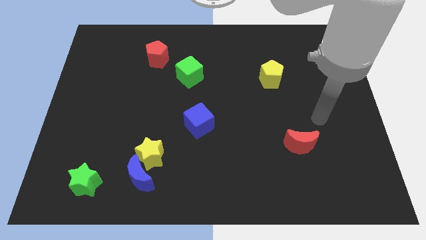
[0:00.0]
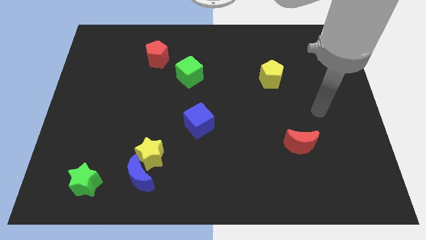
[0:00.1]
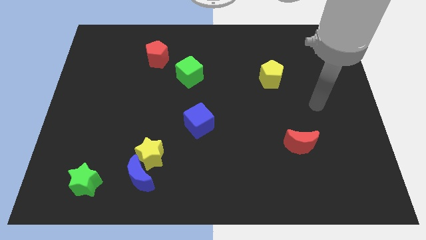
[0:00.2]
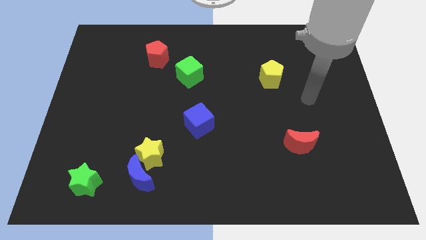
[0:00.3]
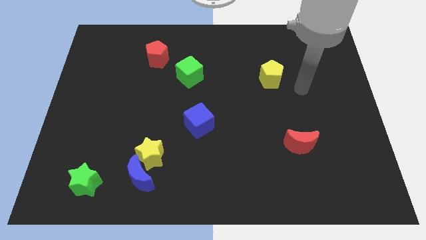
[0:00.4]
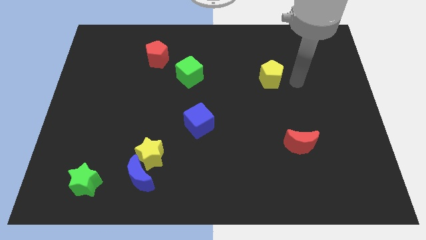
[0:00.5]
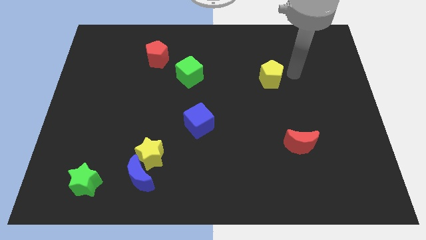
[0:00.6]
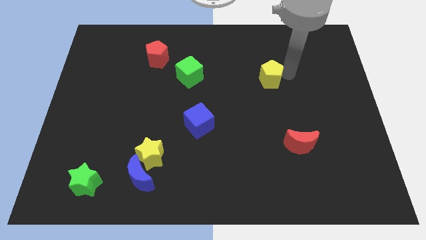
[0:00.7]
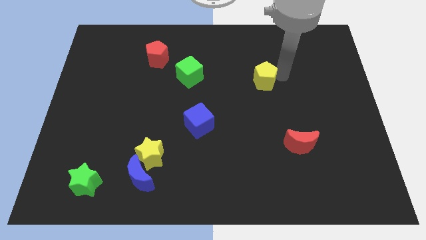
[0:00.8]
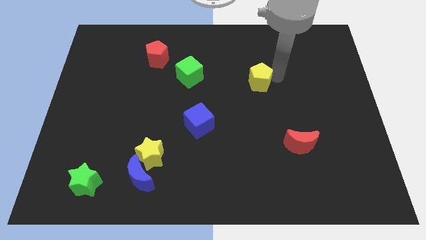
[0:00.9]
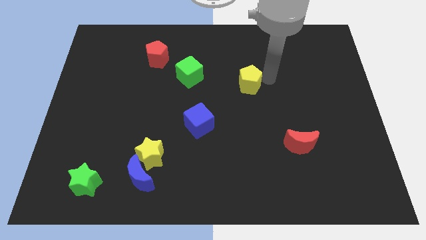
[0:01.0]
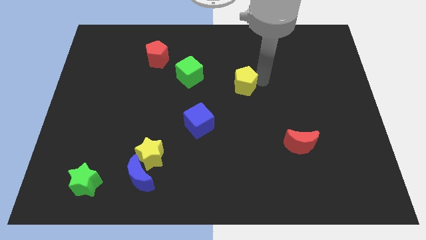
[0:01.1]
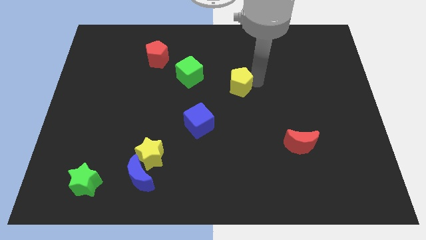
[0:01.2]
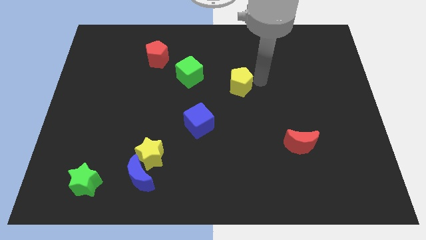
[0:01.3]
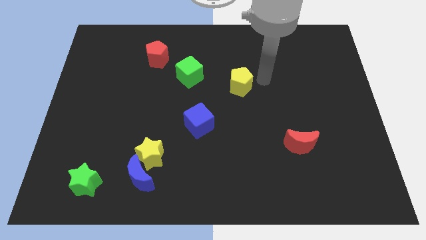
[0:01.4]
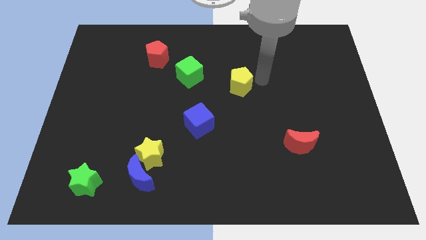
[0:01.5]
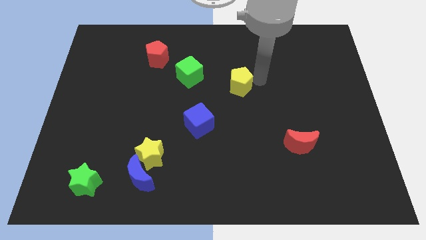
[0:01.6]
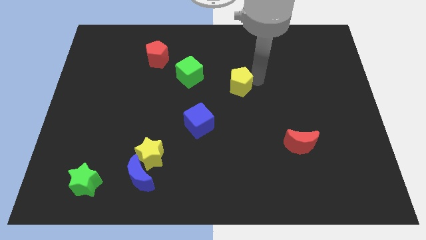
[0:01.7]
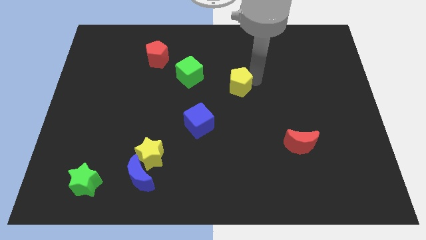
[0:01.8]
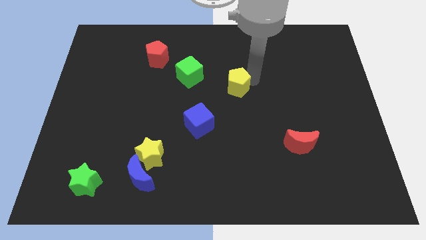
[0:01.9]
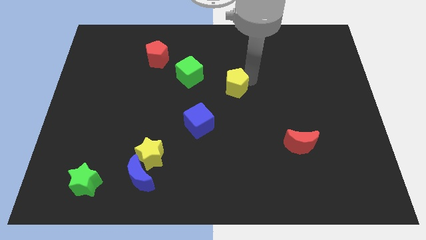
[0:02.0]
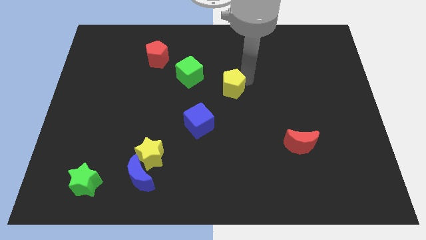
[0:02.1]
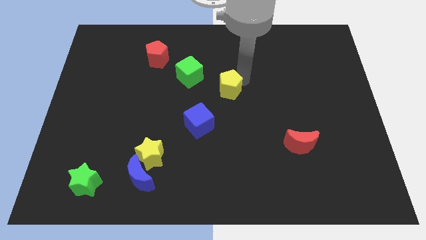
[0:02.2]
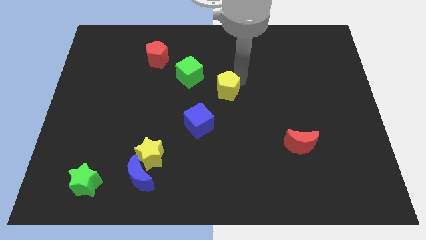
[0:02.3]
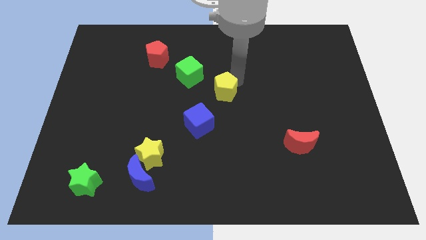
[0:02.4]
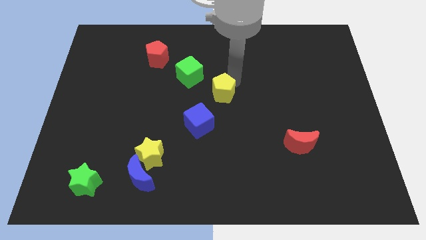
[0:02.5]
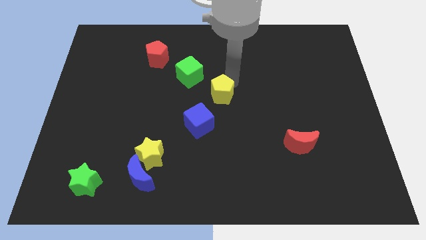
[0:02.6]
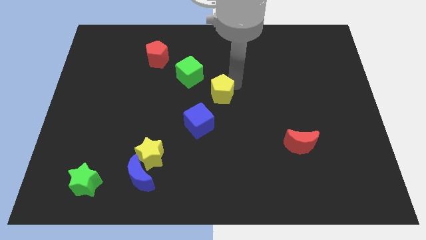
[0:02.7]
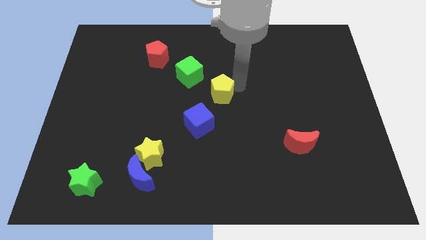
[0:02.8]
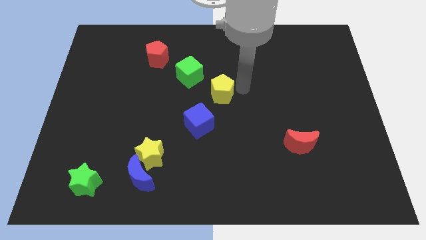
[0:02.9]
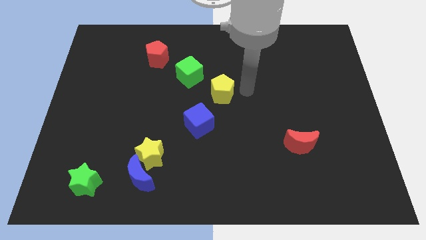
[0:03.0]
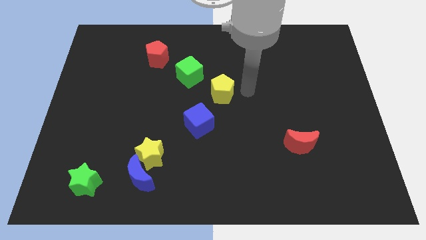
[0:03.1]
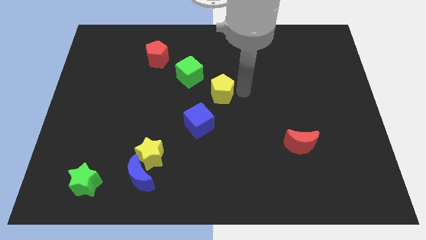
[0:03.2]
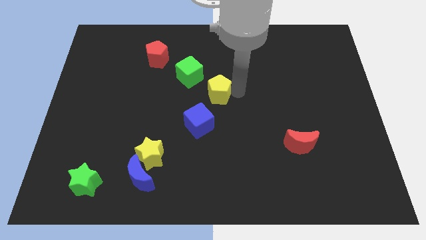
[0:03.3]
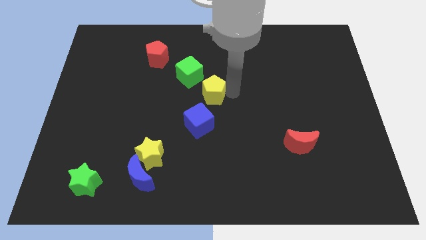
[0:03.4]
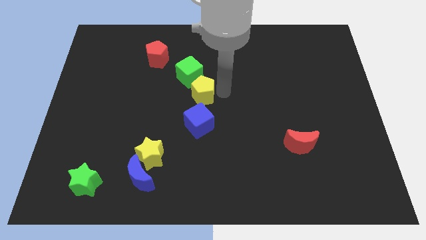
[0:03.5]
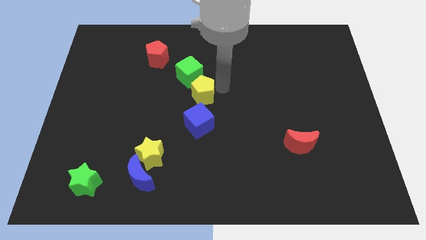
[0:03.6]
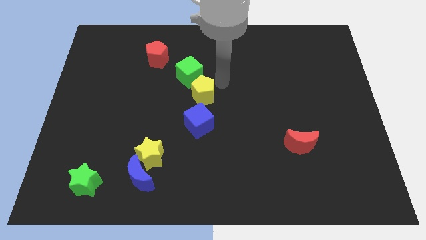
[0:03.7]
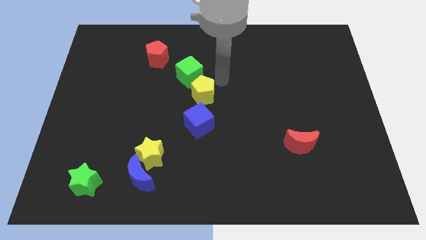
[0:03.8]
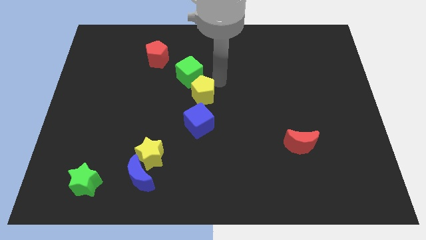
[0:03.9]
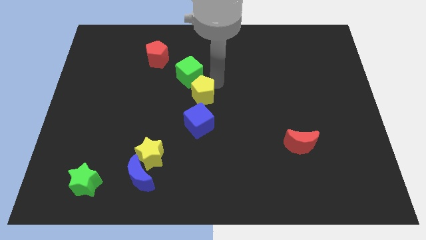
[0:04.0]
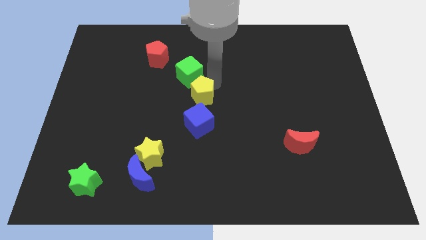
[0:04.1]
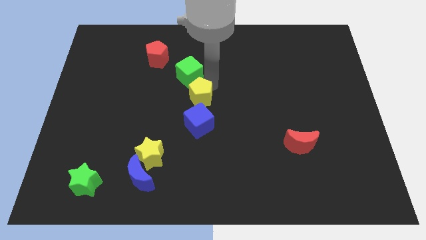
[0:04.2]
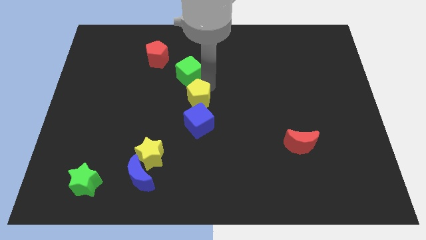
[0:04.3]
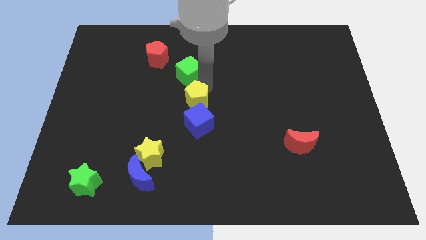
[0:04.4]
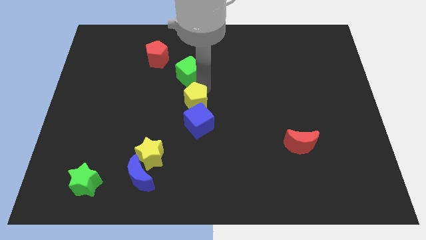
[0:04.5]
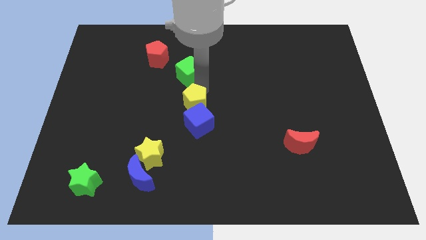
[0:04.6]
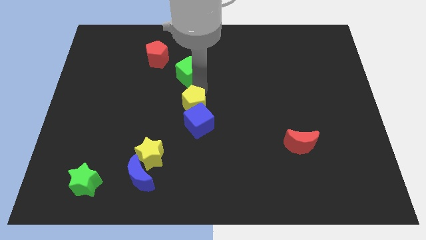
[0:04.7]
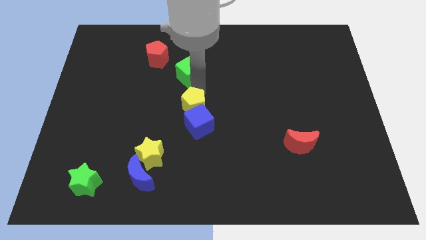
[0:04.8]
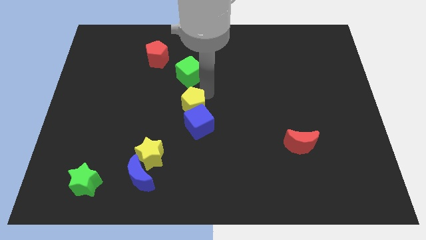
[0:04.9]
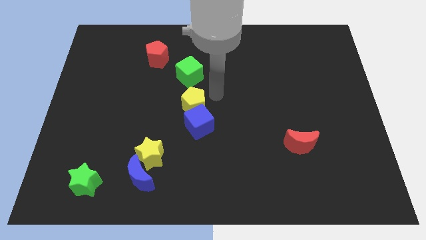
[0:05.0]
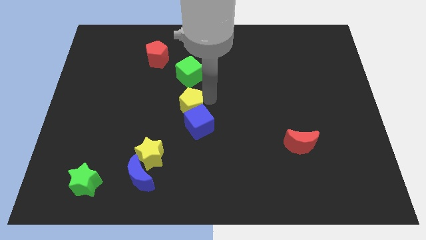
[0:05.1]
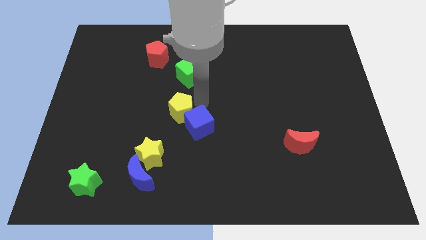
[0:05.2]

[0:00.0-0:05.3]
put the yellow pentagon just left of the blue cube

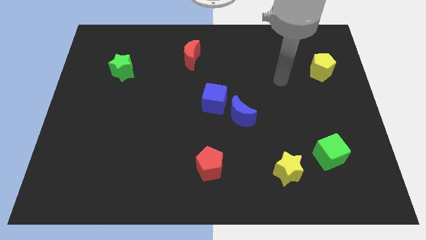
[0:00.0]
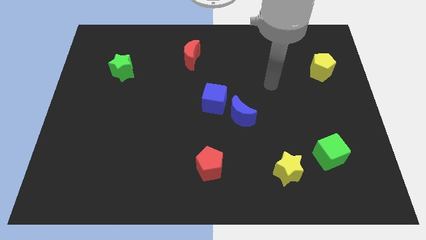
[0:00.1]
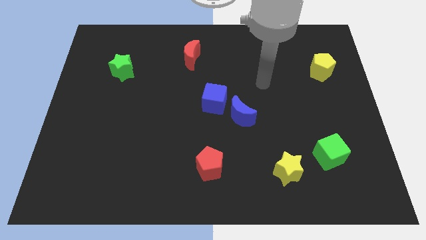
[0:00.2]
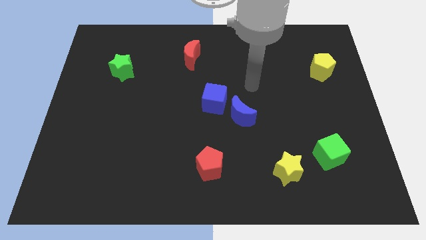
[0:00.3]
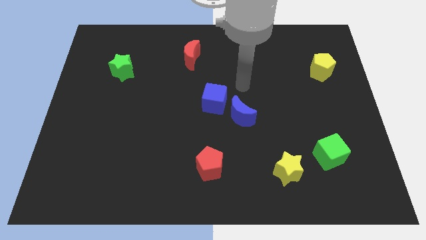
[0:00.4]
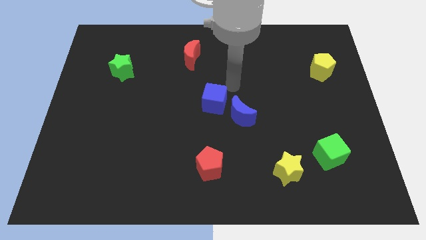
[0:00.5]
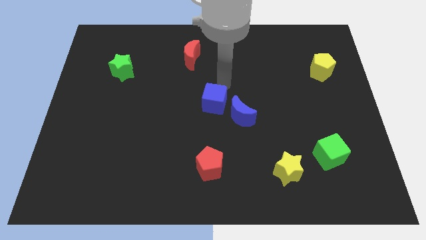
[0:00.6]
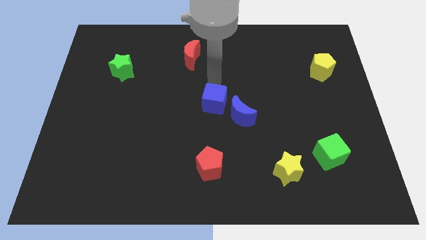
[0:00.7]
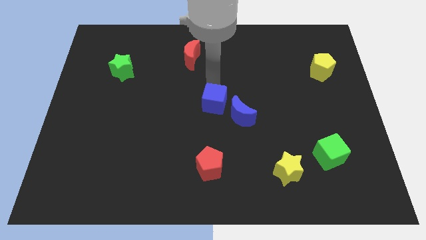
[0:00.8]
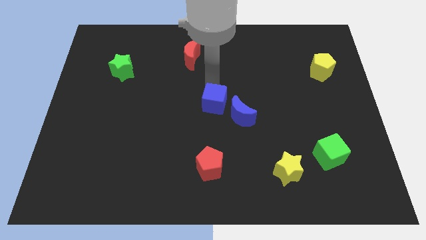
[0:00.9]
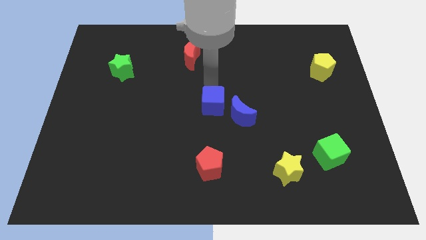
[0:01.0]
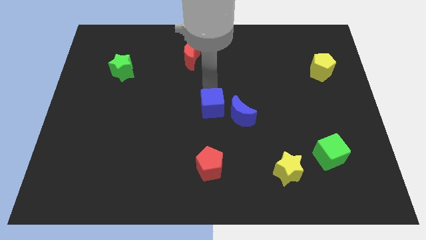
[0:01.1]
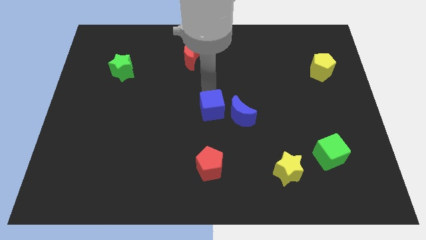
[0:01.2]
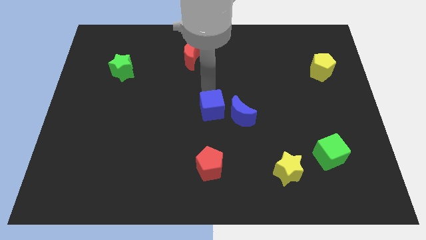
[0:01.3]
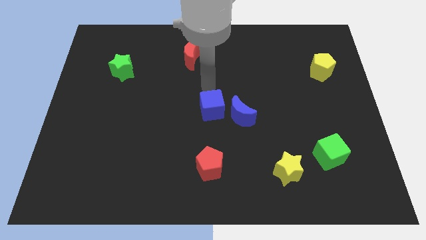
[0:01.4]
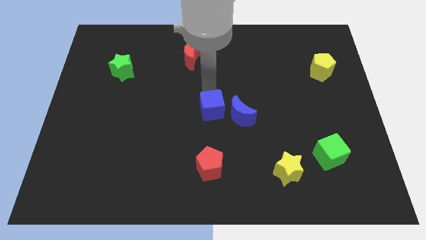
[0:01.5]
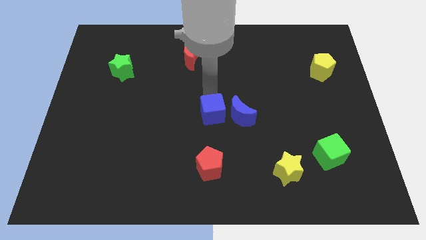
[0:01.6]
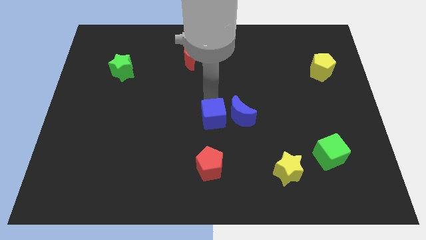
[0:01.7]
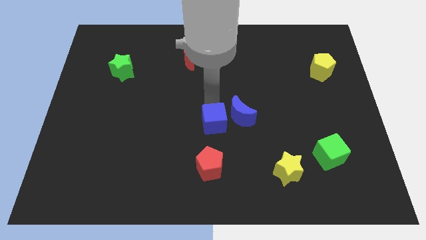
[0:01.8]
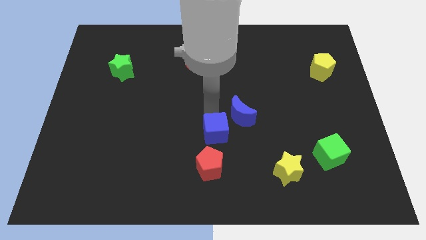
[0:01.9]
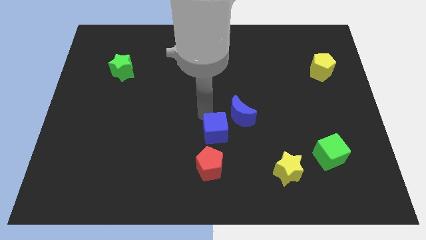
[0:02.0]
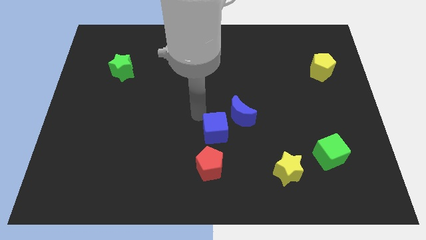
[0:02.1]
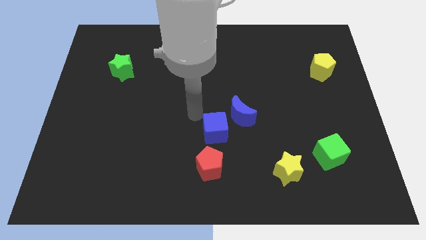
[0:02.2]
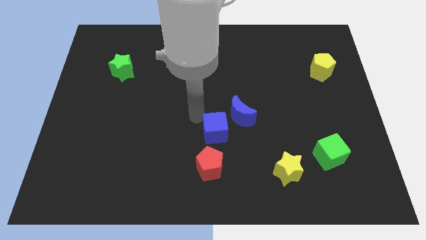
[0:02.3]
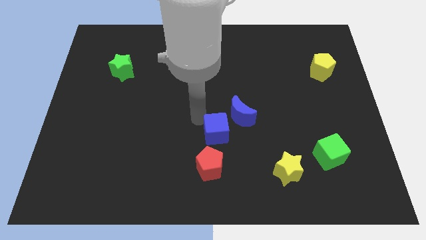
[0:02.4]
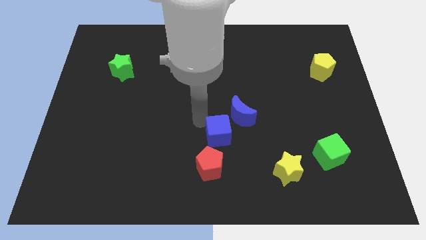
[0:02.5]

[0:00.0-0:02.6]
put the blue cube to the top right of the red pentagon

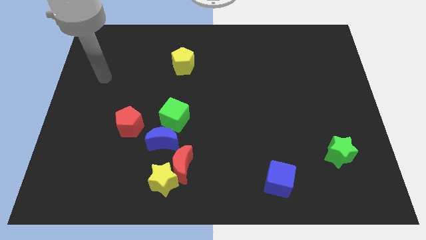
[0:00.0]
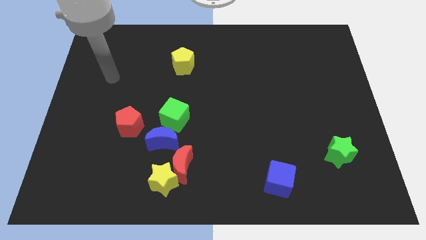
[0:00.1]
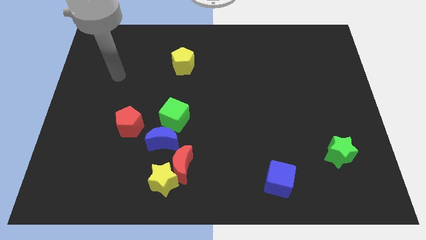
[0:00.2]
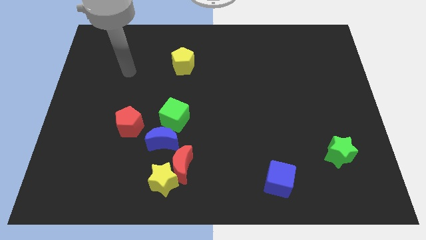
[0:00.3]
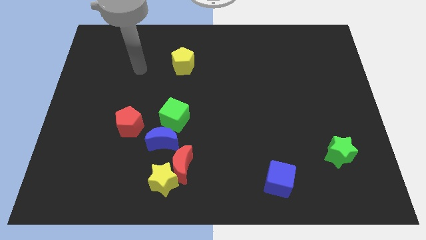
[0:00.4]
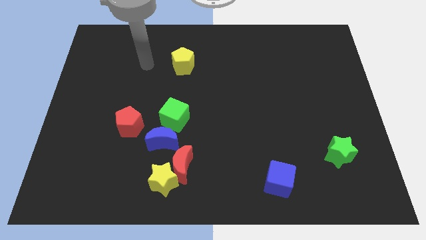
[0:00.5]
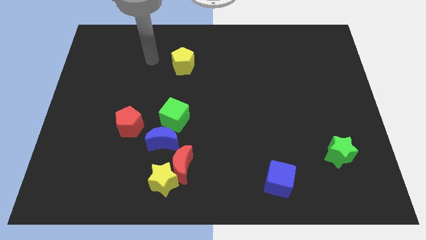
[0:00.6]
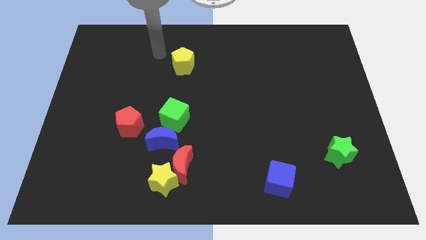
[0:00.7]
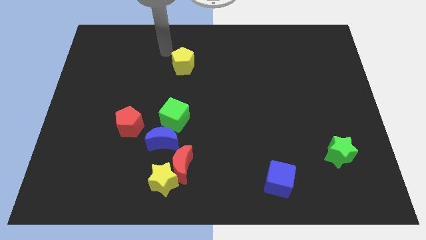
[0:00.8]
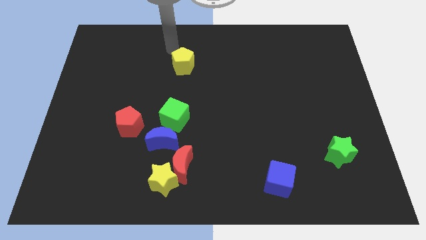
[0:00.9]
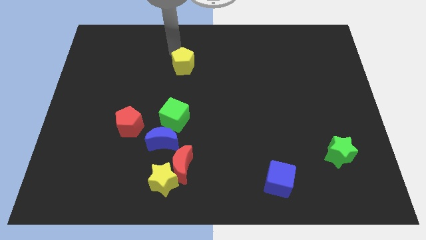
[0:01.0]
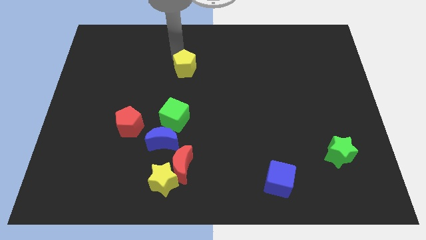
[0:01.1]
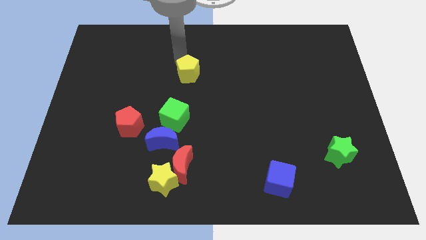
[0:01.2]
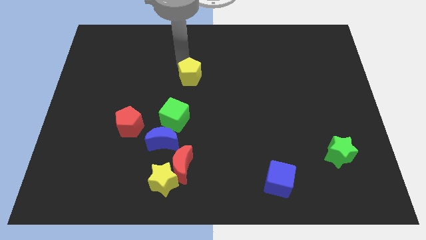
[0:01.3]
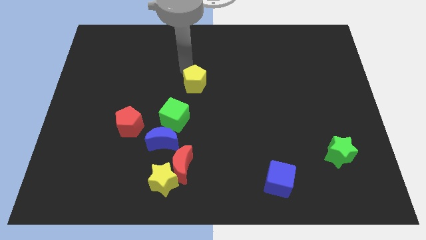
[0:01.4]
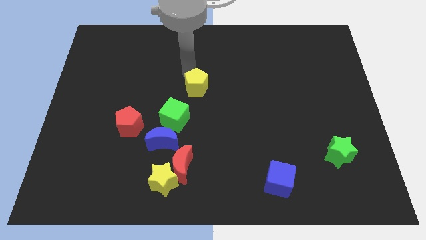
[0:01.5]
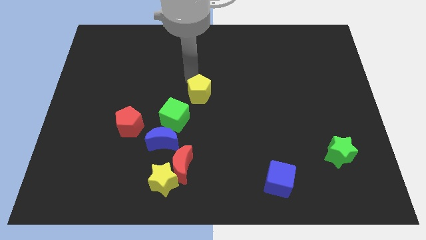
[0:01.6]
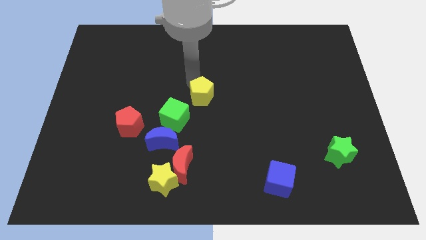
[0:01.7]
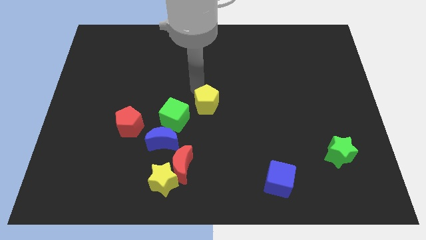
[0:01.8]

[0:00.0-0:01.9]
put the yellow pentagon just right of the green cube
